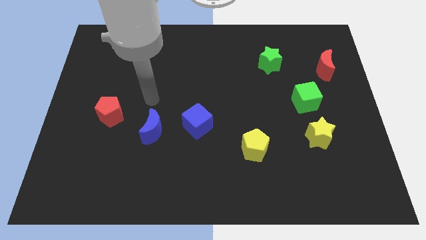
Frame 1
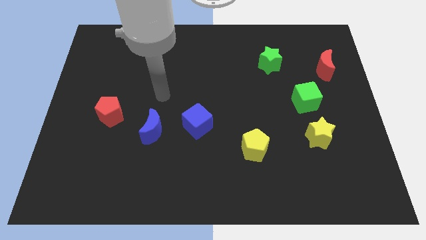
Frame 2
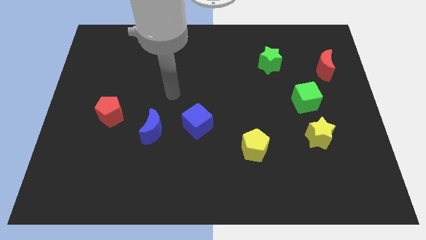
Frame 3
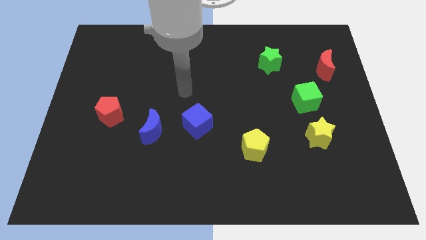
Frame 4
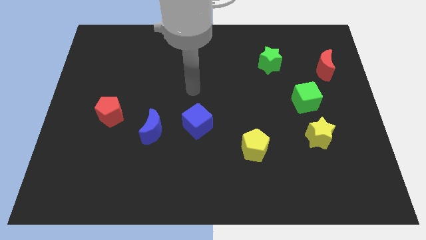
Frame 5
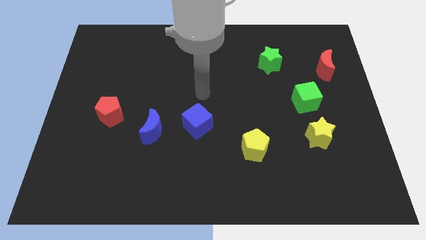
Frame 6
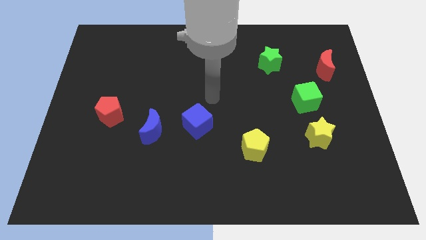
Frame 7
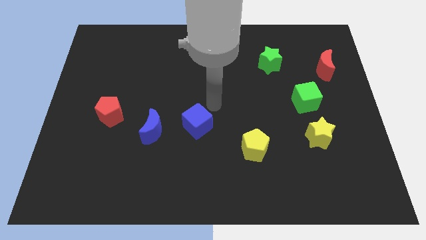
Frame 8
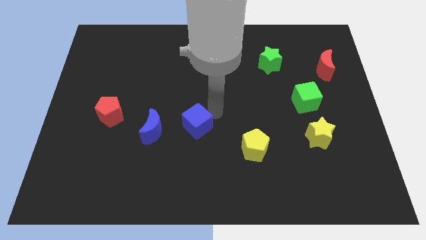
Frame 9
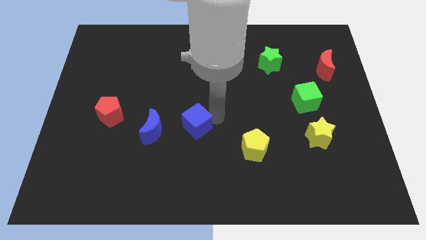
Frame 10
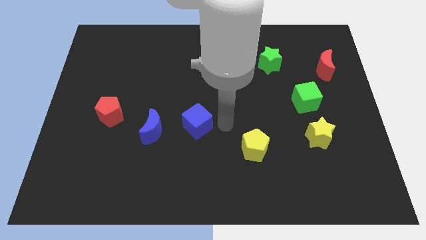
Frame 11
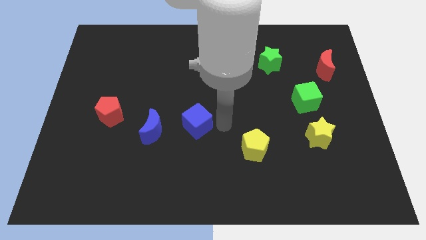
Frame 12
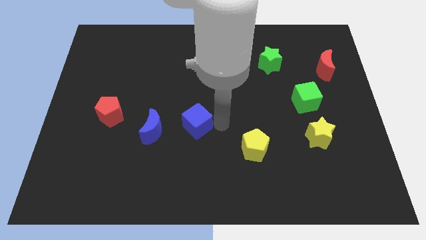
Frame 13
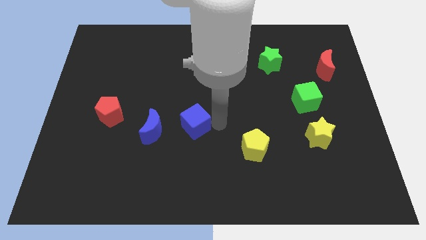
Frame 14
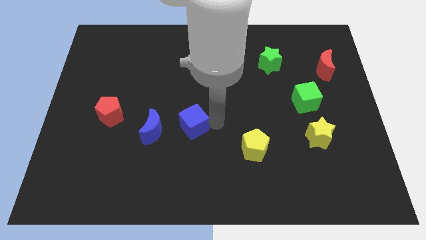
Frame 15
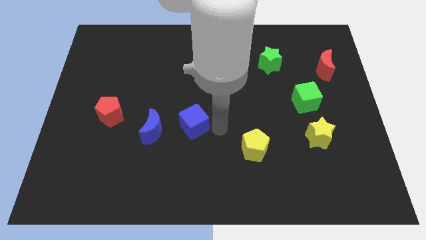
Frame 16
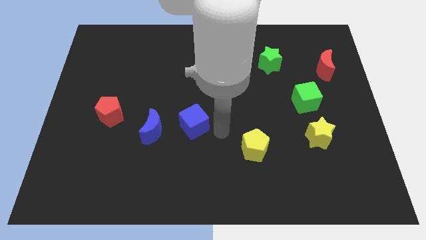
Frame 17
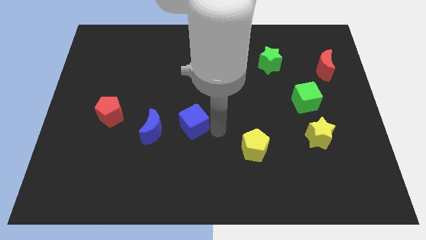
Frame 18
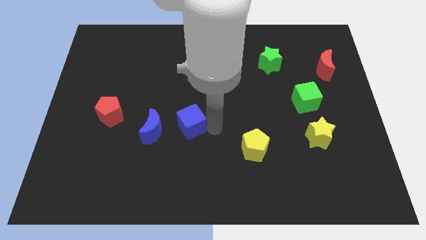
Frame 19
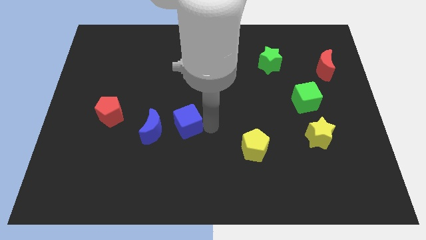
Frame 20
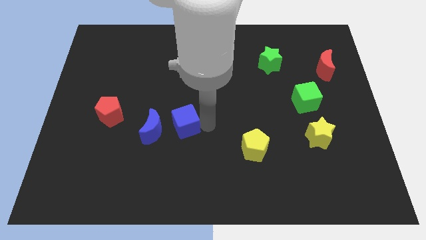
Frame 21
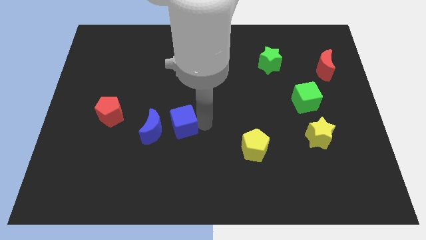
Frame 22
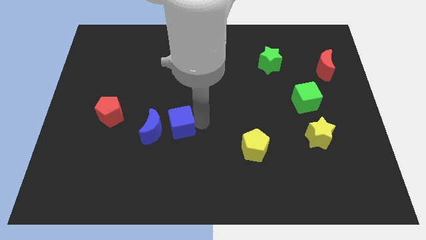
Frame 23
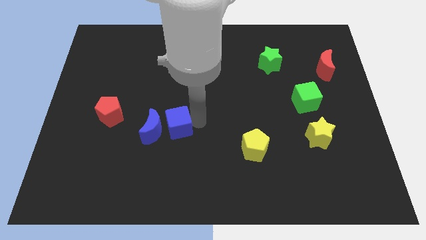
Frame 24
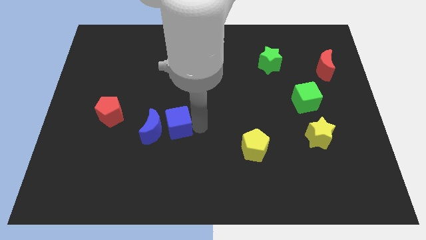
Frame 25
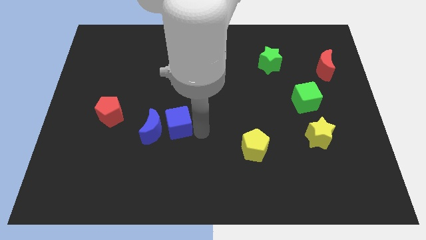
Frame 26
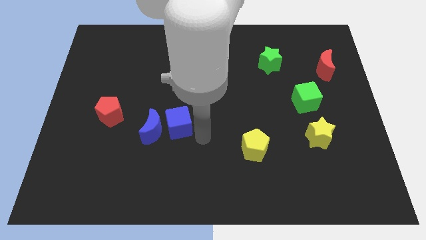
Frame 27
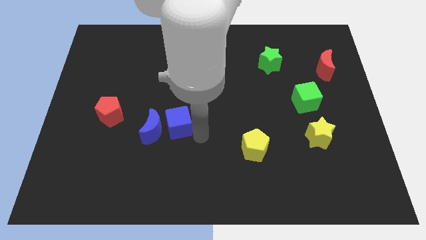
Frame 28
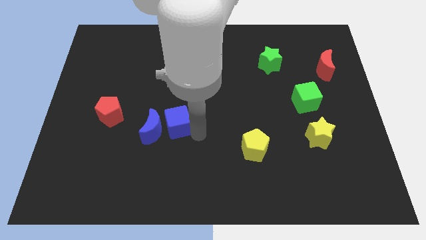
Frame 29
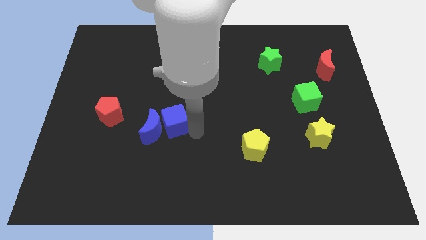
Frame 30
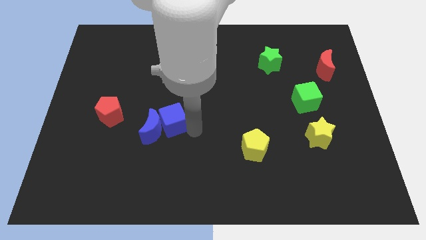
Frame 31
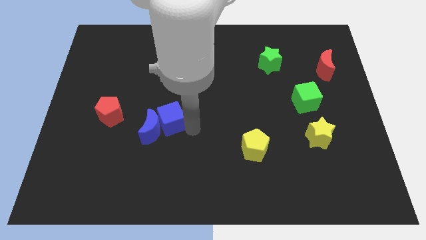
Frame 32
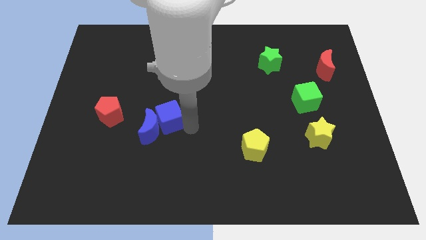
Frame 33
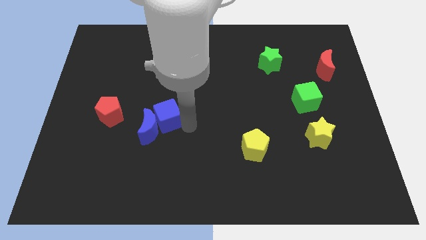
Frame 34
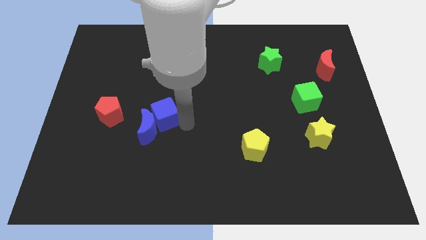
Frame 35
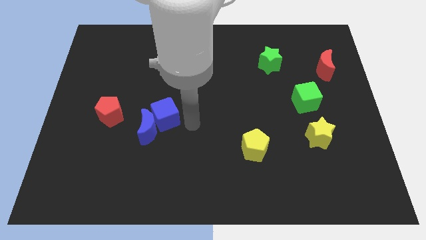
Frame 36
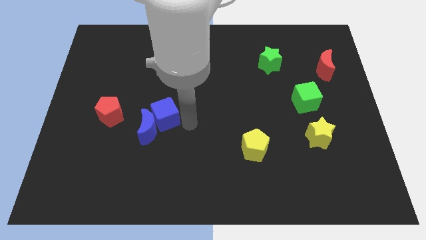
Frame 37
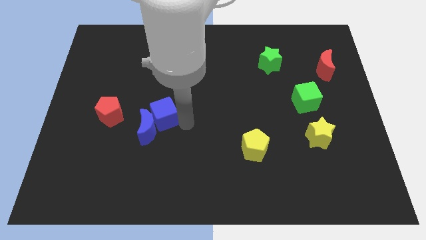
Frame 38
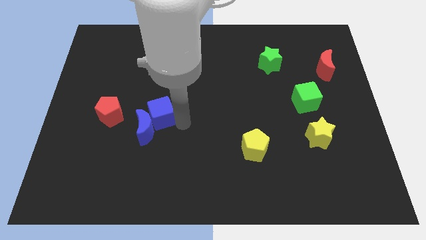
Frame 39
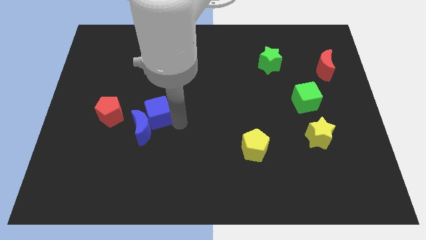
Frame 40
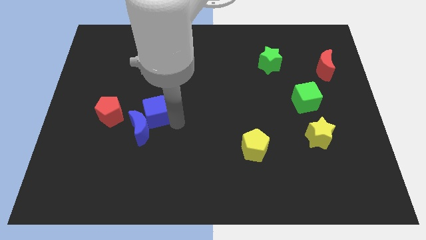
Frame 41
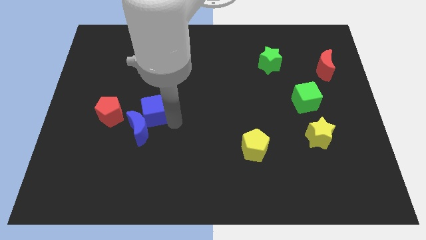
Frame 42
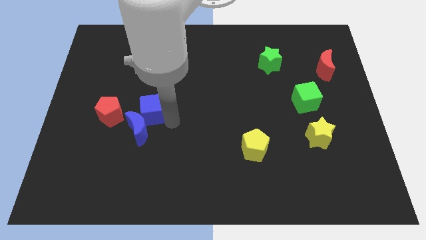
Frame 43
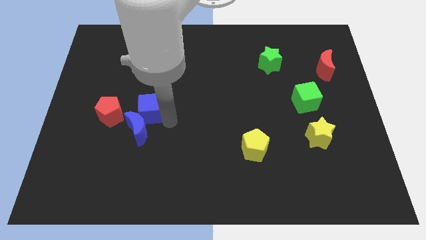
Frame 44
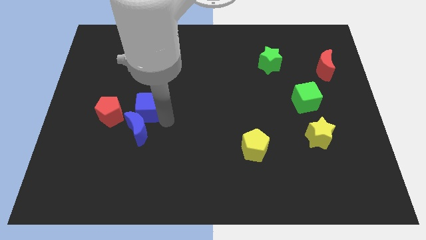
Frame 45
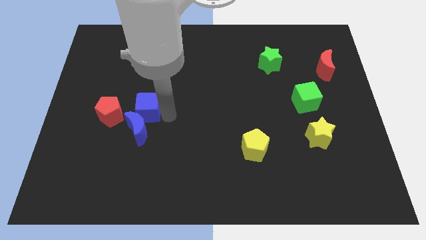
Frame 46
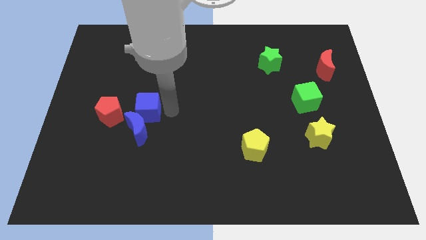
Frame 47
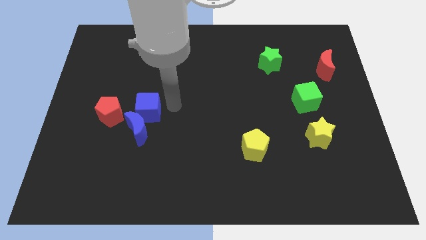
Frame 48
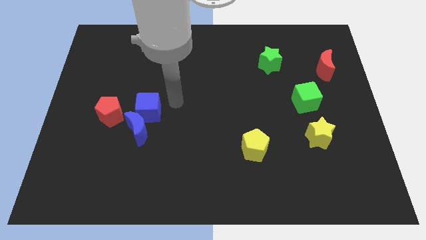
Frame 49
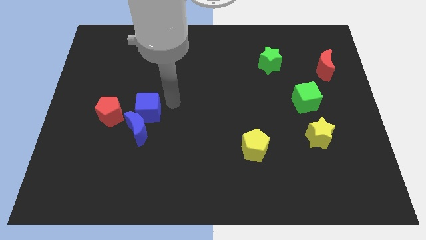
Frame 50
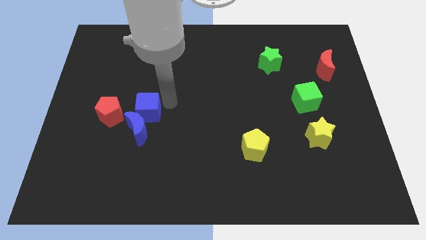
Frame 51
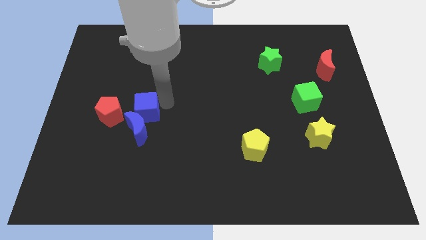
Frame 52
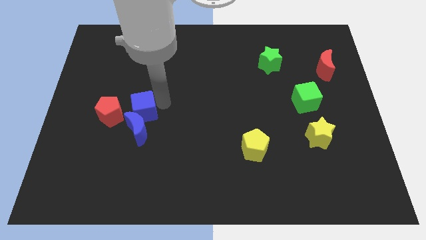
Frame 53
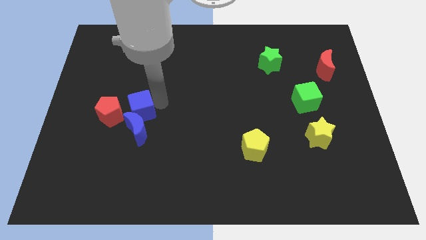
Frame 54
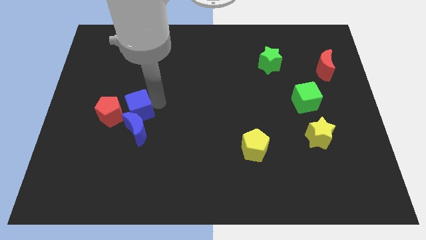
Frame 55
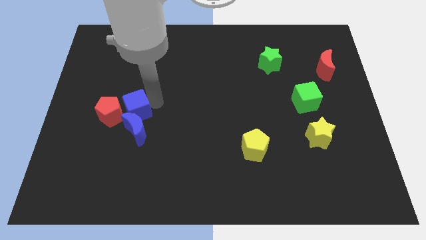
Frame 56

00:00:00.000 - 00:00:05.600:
slide the blue cube to the red pentagon

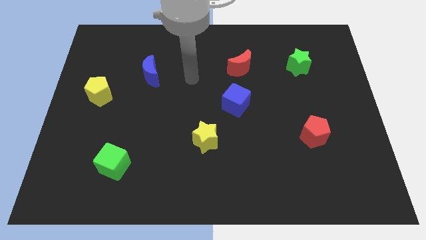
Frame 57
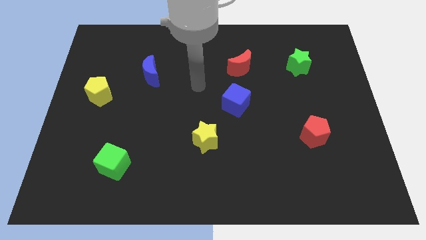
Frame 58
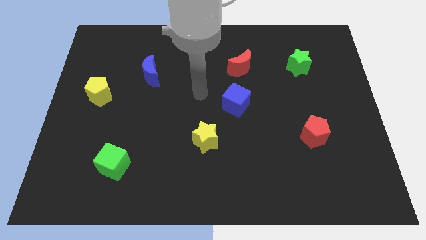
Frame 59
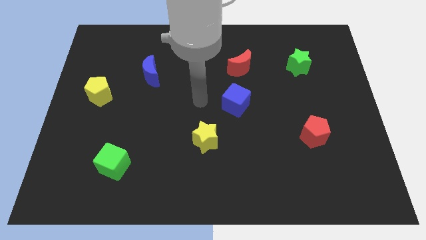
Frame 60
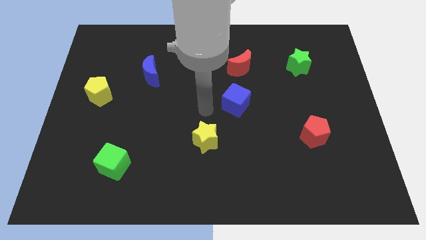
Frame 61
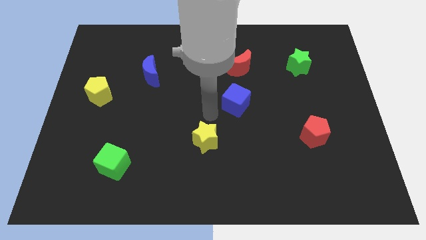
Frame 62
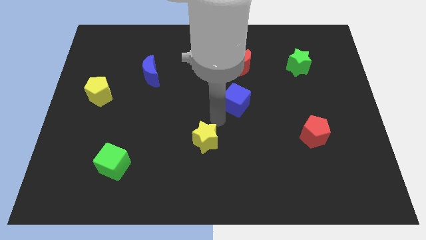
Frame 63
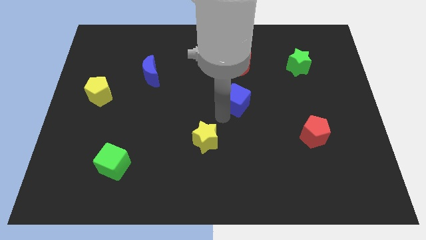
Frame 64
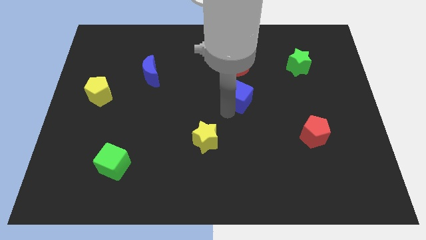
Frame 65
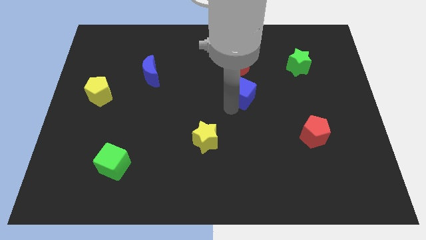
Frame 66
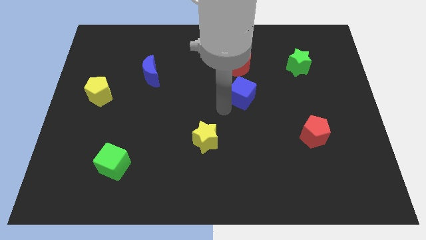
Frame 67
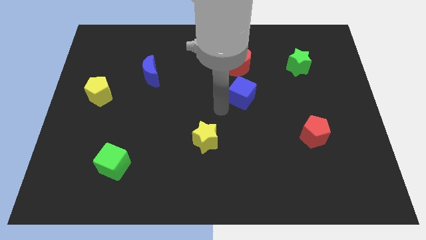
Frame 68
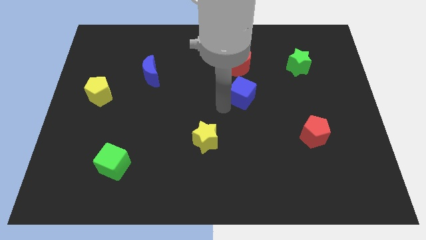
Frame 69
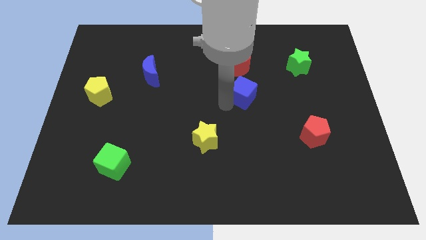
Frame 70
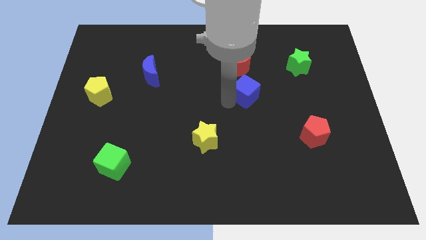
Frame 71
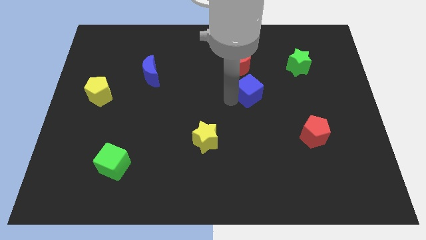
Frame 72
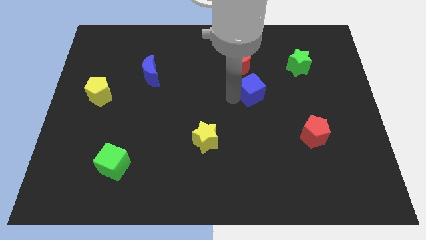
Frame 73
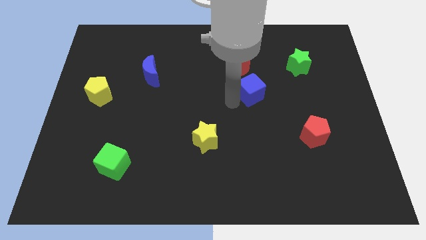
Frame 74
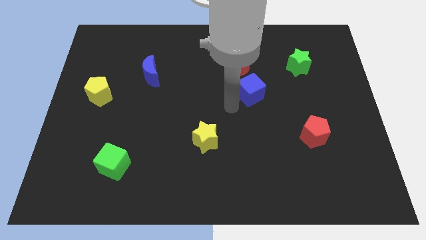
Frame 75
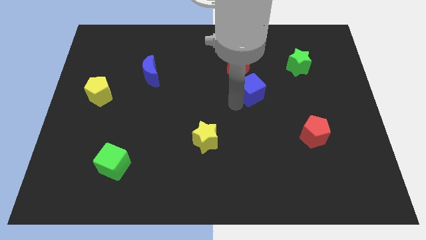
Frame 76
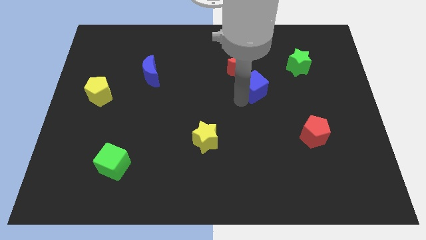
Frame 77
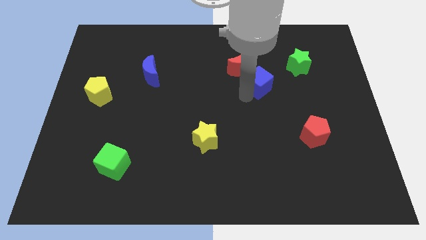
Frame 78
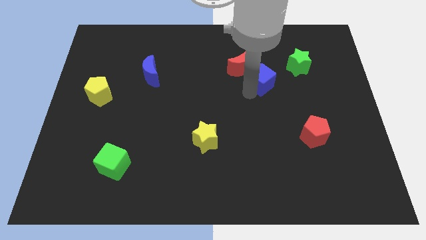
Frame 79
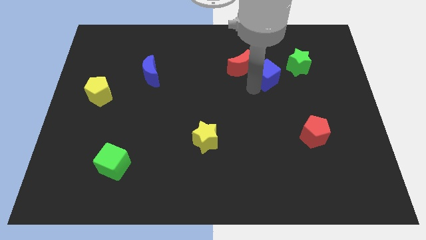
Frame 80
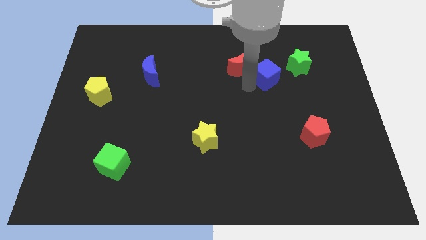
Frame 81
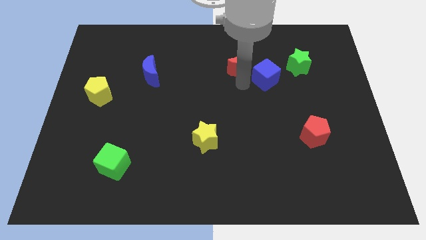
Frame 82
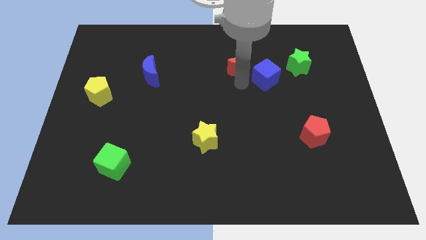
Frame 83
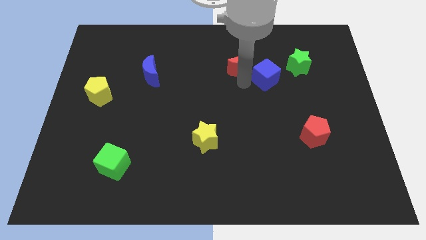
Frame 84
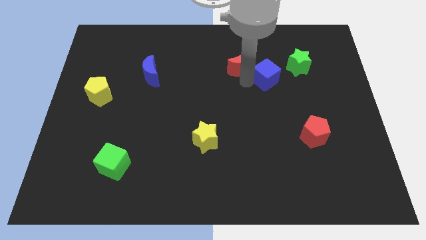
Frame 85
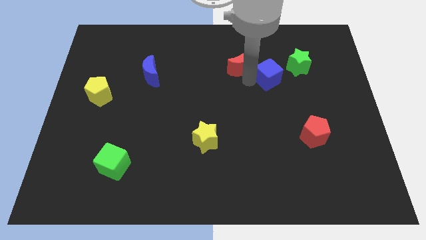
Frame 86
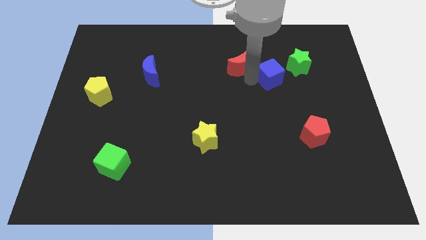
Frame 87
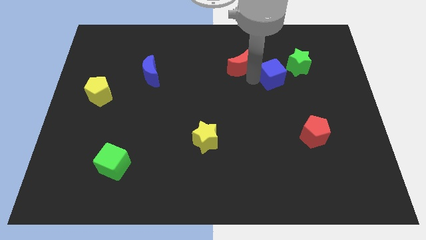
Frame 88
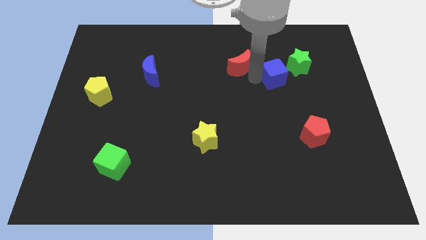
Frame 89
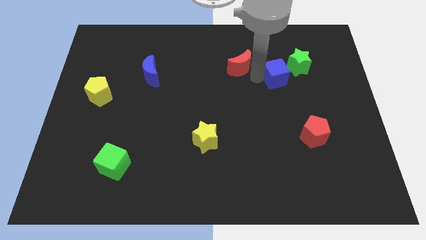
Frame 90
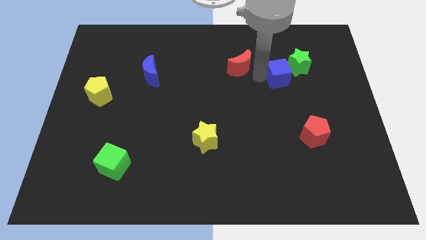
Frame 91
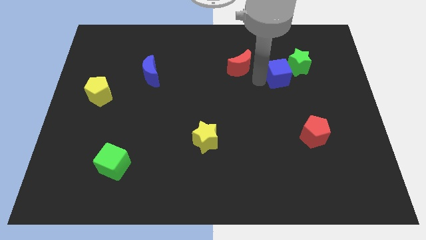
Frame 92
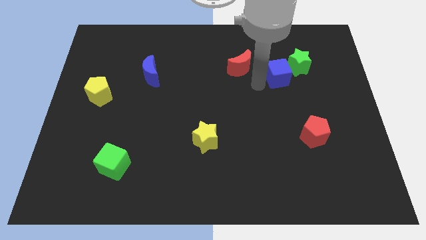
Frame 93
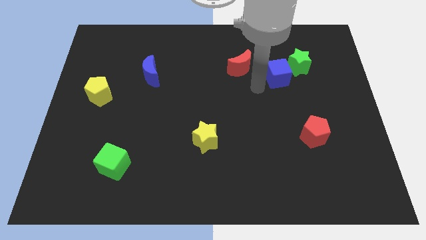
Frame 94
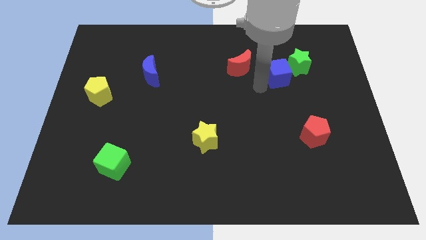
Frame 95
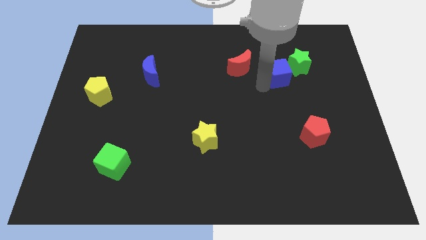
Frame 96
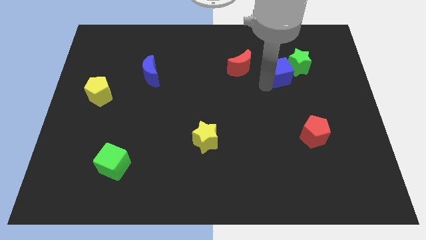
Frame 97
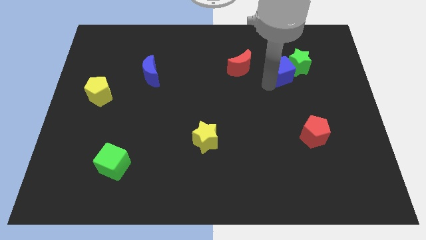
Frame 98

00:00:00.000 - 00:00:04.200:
push the blue cube next to the green star
